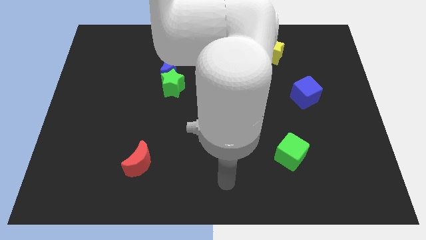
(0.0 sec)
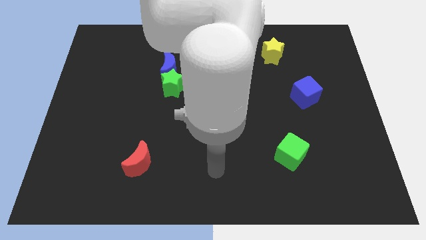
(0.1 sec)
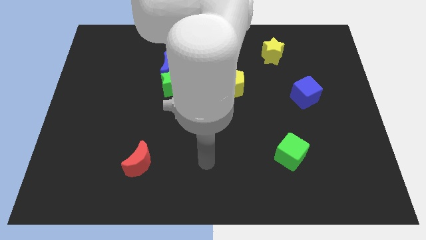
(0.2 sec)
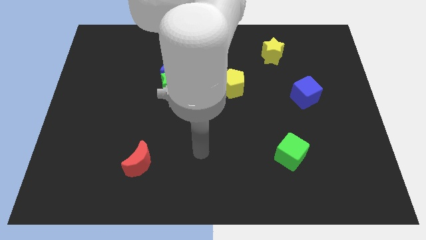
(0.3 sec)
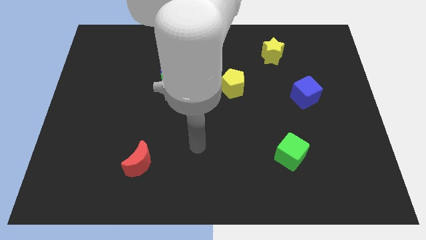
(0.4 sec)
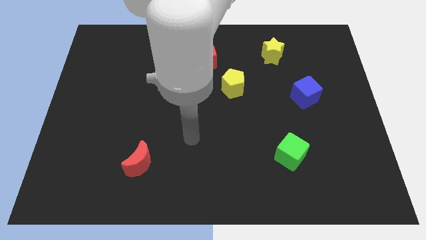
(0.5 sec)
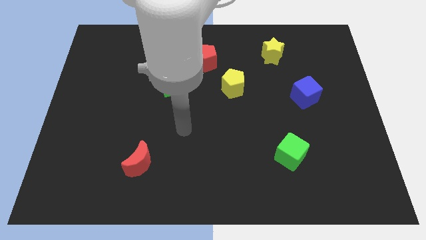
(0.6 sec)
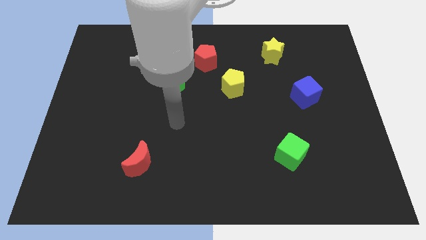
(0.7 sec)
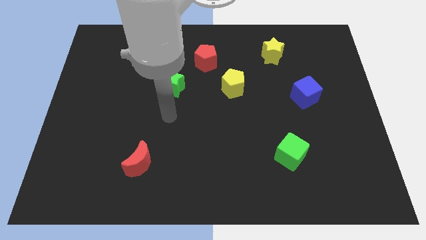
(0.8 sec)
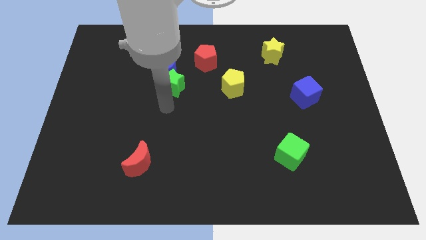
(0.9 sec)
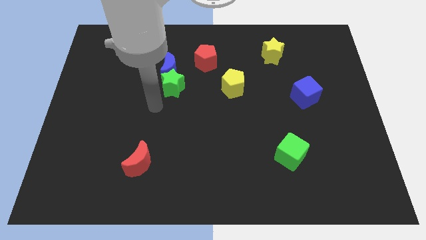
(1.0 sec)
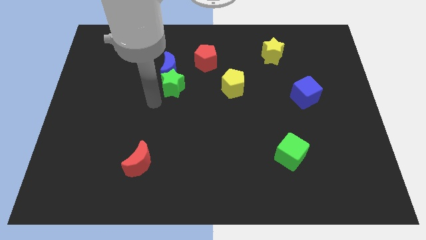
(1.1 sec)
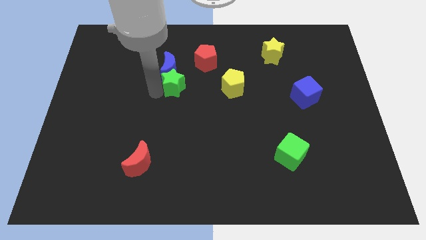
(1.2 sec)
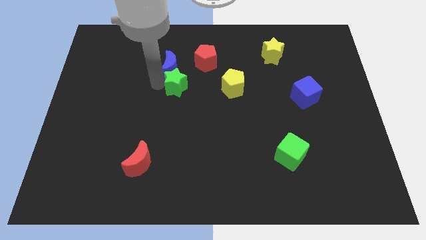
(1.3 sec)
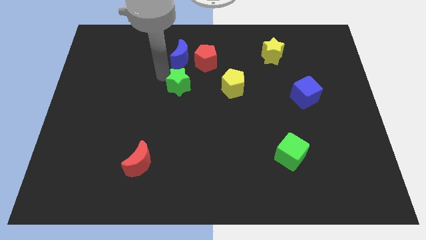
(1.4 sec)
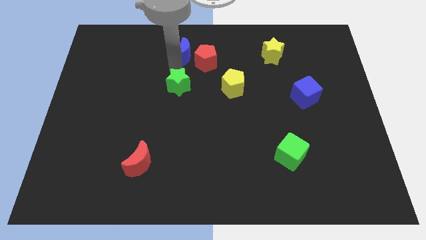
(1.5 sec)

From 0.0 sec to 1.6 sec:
pull the green star apart from the blue moon

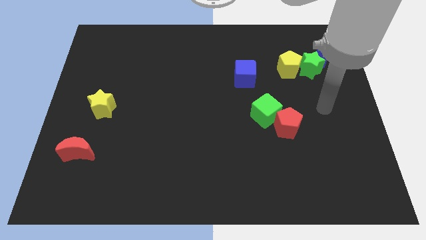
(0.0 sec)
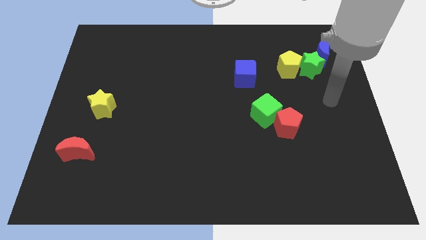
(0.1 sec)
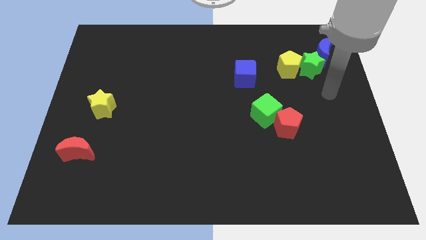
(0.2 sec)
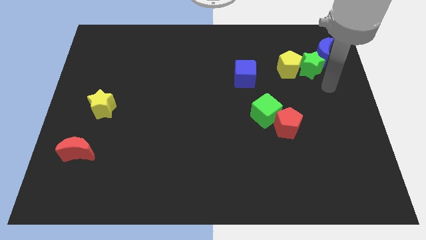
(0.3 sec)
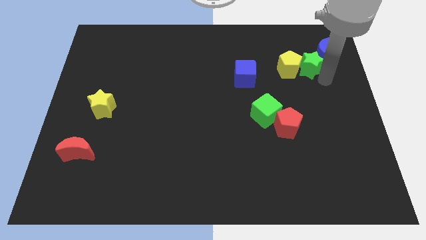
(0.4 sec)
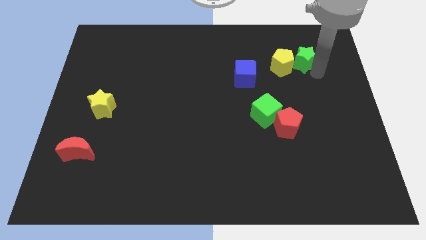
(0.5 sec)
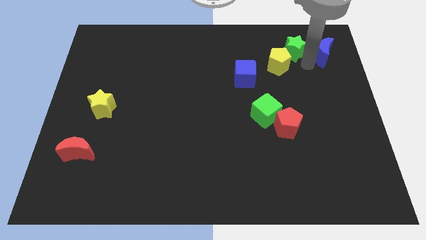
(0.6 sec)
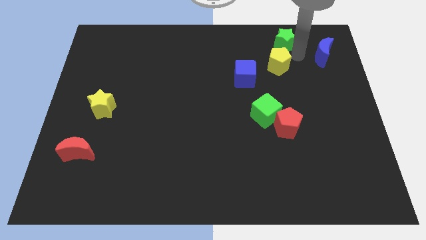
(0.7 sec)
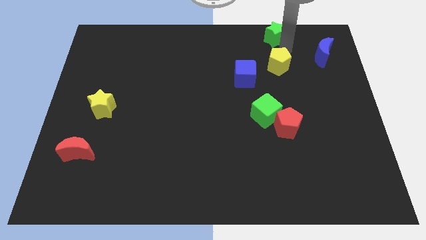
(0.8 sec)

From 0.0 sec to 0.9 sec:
pull the yellow pentagon apart from the green star

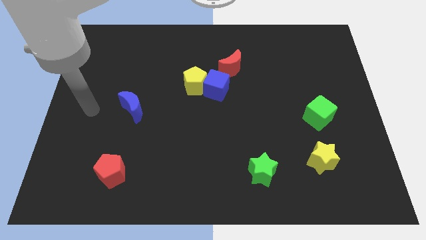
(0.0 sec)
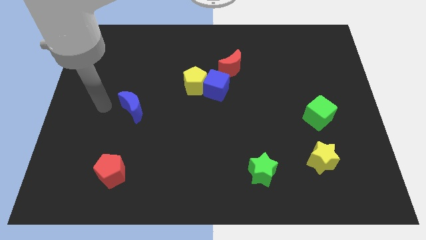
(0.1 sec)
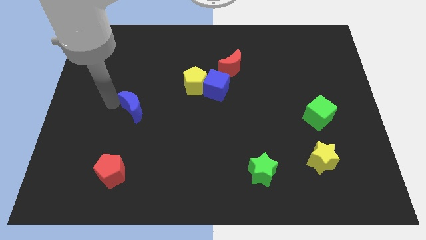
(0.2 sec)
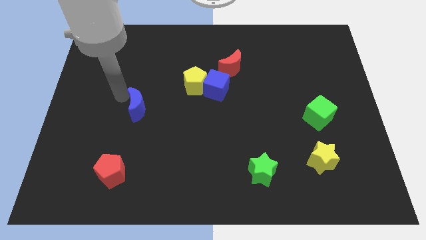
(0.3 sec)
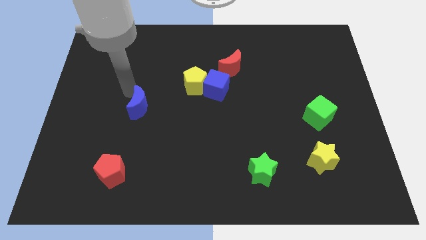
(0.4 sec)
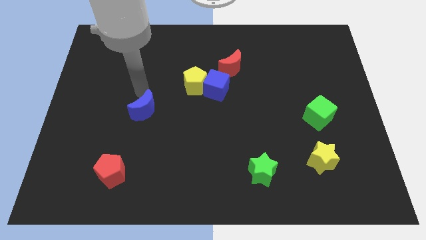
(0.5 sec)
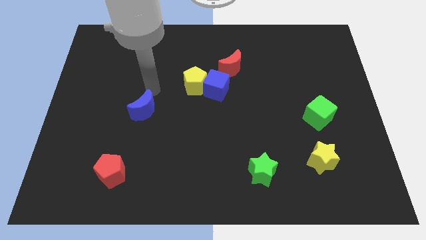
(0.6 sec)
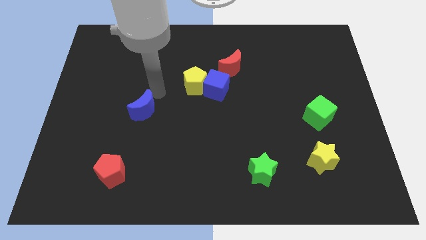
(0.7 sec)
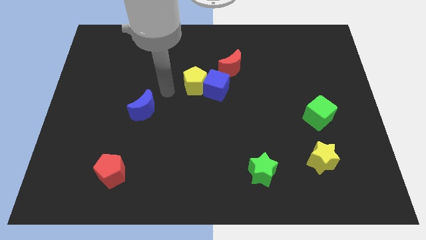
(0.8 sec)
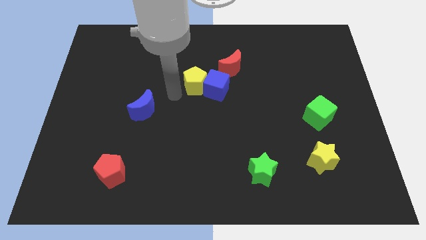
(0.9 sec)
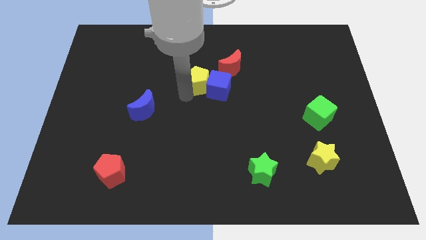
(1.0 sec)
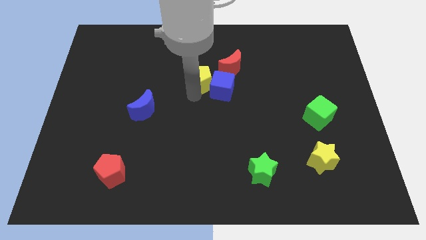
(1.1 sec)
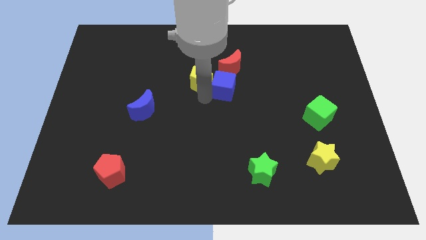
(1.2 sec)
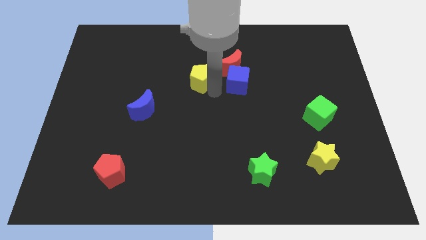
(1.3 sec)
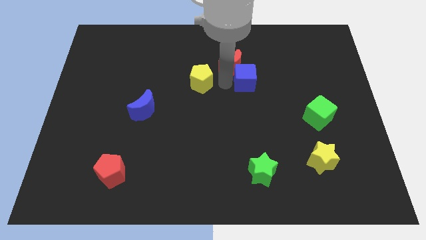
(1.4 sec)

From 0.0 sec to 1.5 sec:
move the yellow pentagon away from the blue cube

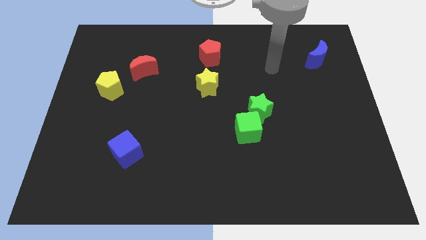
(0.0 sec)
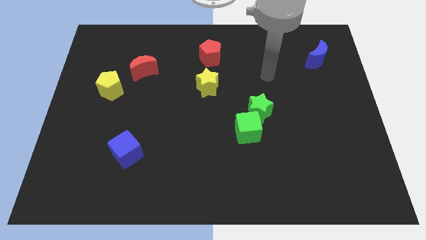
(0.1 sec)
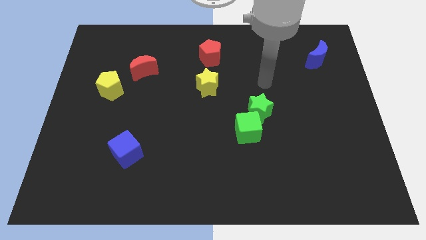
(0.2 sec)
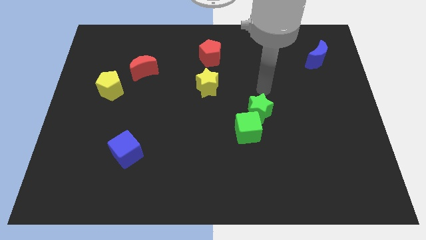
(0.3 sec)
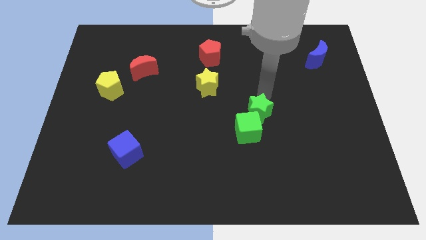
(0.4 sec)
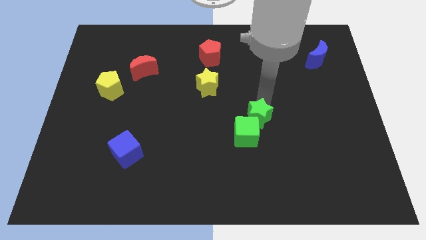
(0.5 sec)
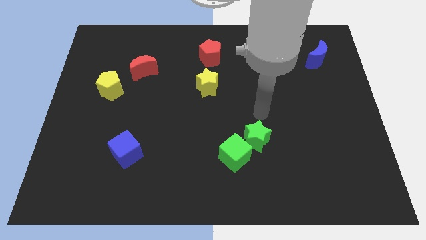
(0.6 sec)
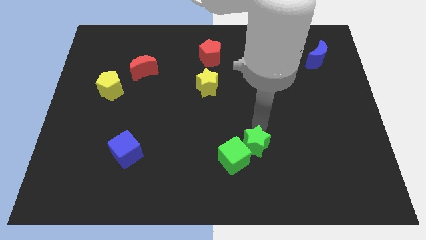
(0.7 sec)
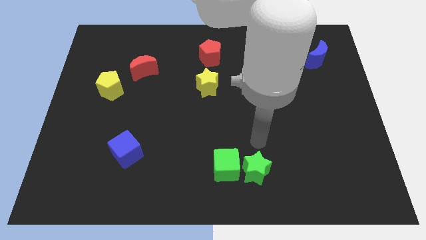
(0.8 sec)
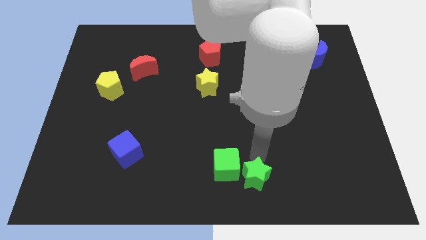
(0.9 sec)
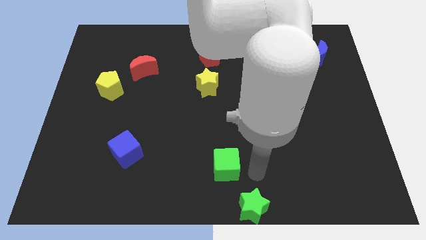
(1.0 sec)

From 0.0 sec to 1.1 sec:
separate the green cube from the green star

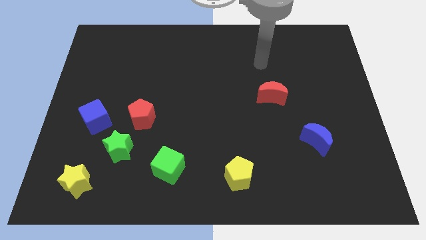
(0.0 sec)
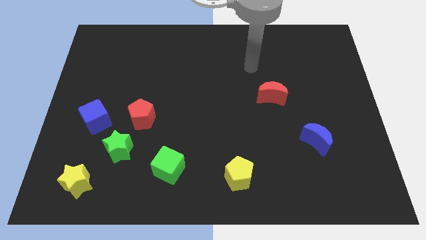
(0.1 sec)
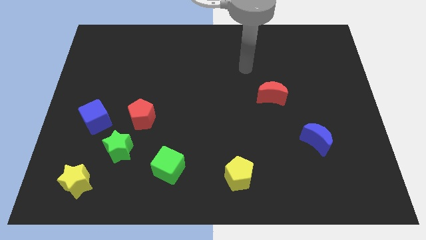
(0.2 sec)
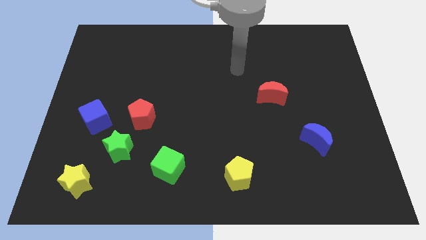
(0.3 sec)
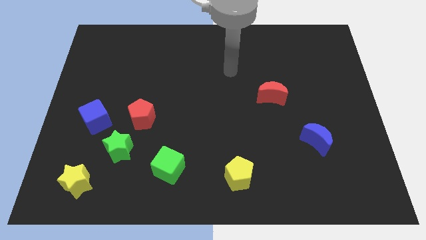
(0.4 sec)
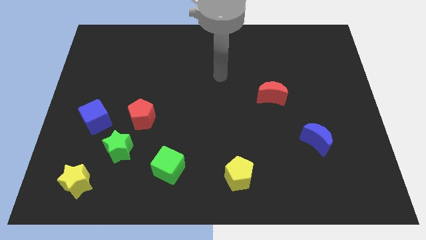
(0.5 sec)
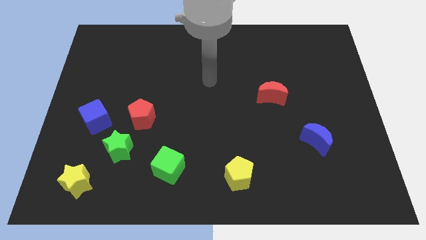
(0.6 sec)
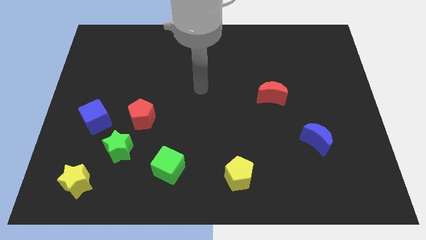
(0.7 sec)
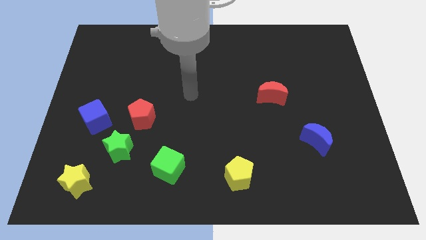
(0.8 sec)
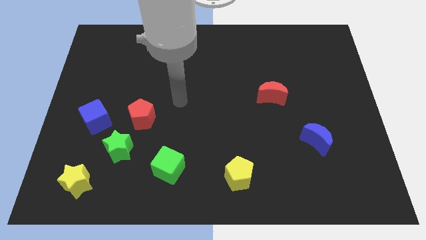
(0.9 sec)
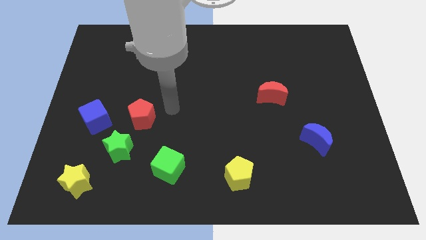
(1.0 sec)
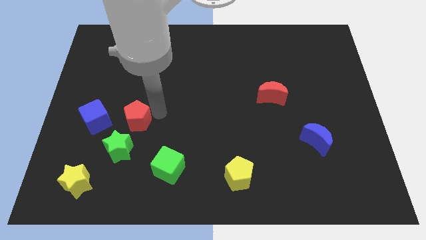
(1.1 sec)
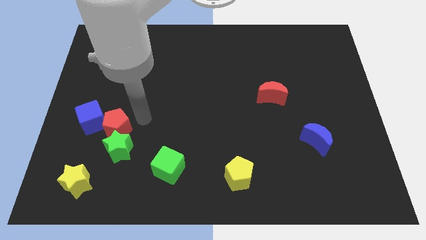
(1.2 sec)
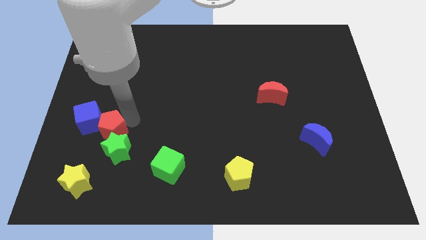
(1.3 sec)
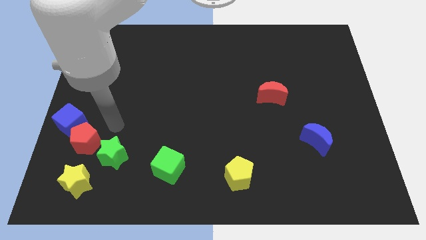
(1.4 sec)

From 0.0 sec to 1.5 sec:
separate the green star from the red pentagon and blue cube

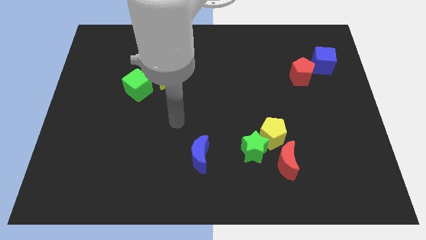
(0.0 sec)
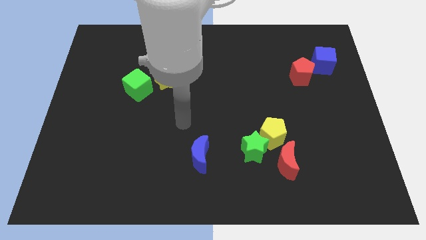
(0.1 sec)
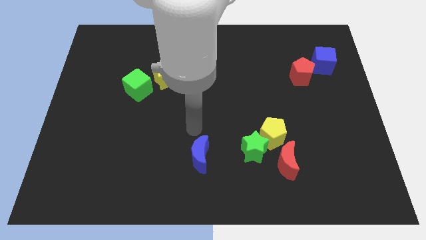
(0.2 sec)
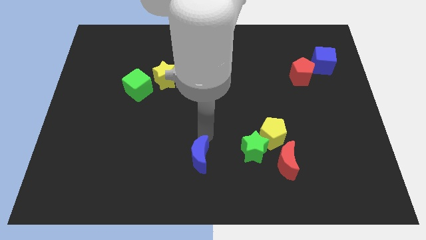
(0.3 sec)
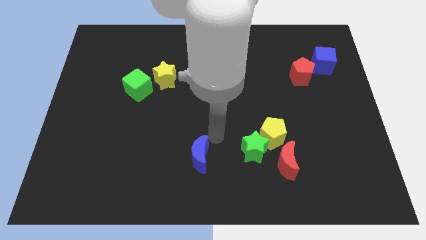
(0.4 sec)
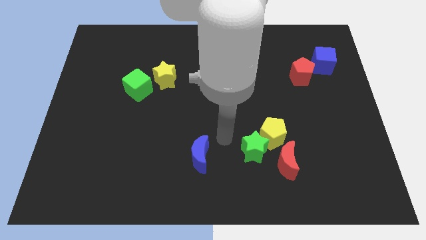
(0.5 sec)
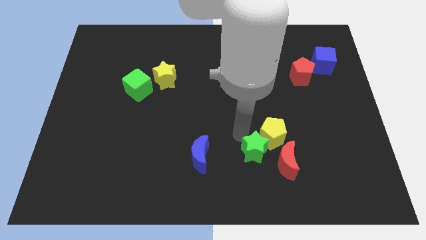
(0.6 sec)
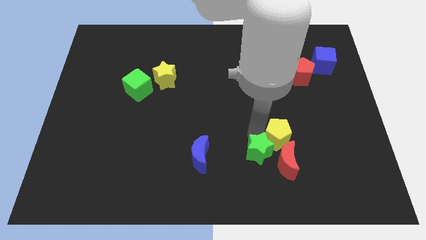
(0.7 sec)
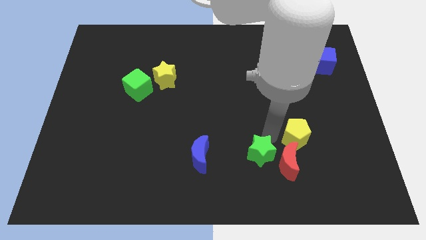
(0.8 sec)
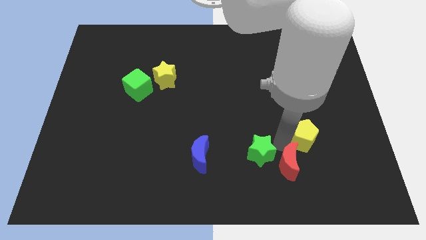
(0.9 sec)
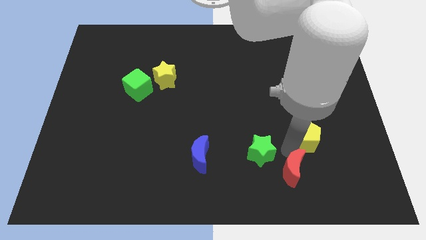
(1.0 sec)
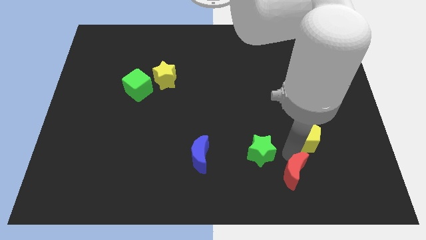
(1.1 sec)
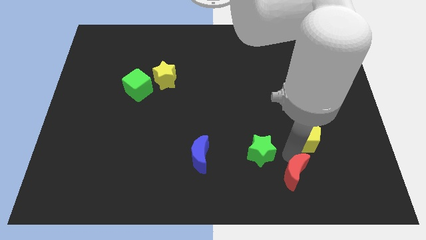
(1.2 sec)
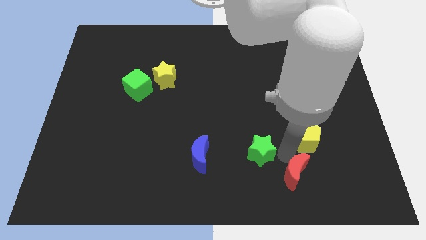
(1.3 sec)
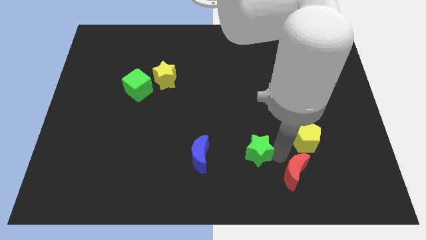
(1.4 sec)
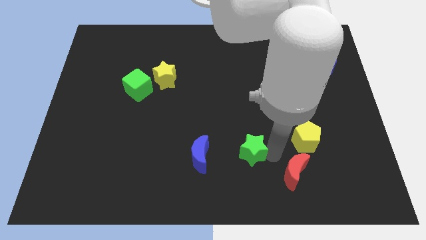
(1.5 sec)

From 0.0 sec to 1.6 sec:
pull the green star apart from the yellow pentagon and red moon

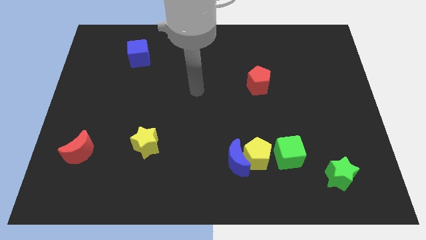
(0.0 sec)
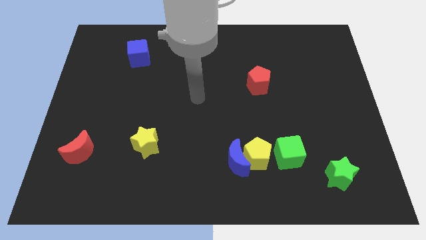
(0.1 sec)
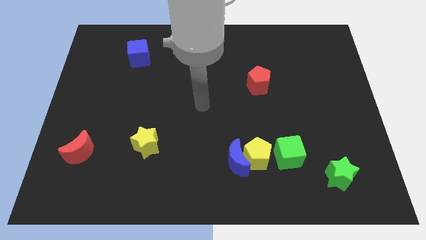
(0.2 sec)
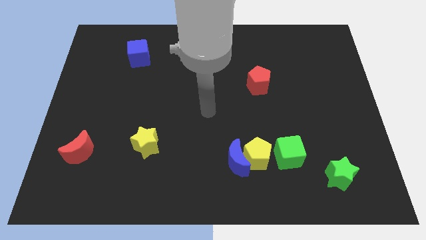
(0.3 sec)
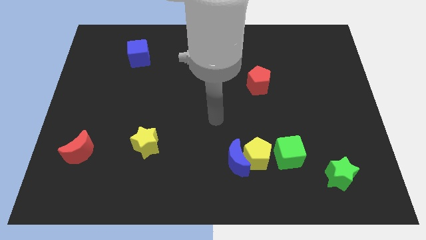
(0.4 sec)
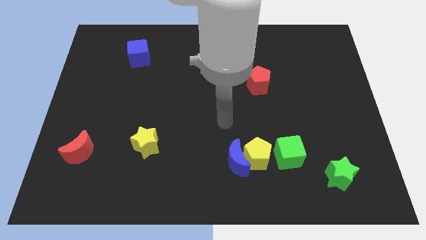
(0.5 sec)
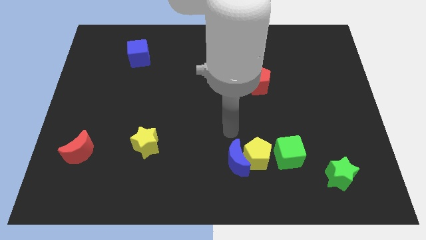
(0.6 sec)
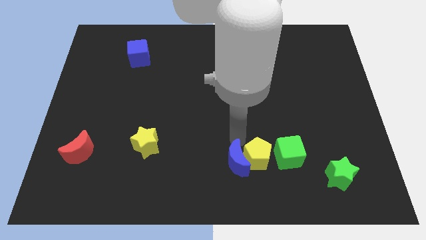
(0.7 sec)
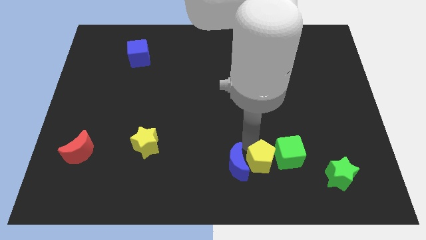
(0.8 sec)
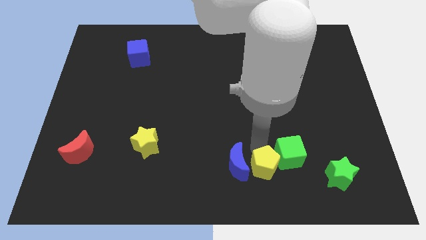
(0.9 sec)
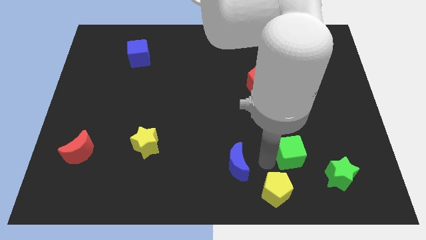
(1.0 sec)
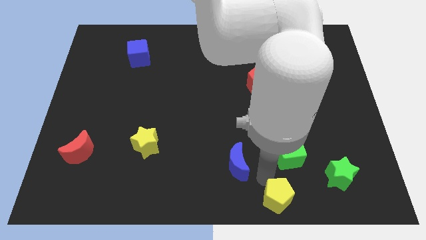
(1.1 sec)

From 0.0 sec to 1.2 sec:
pull the blue moon apart from the yellow pentagon
